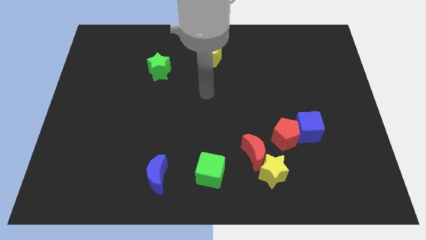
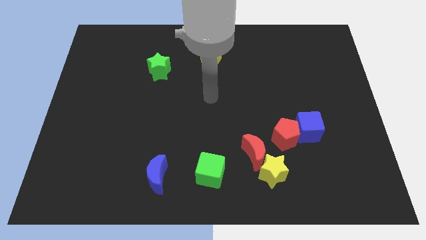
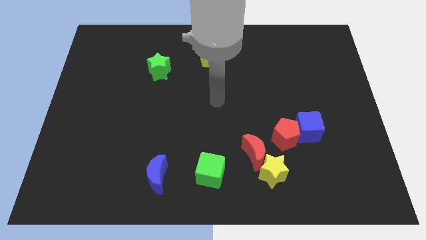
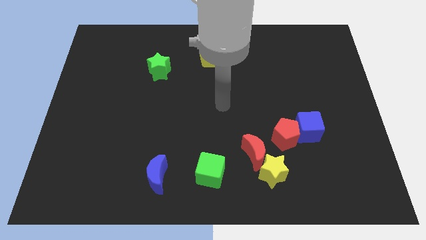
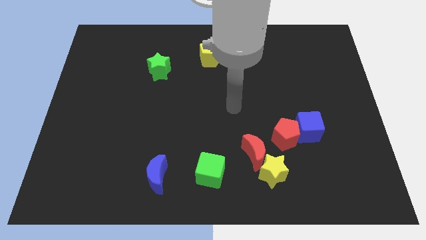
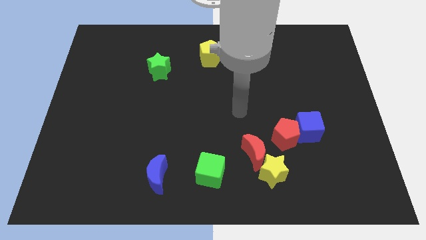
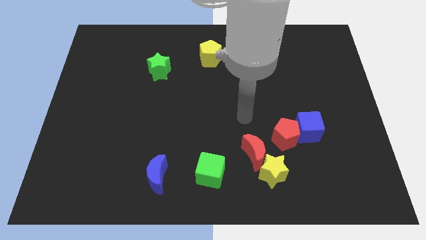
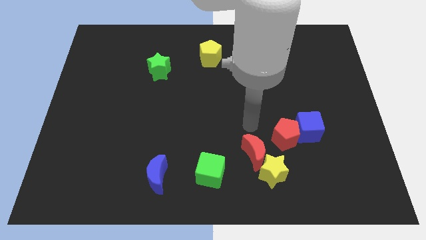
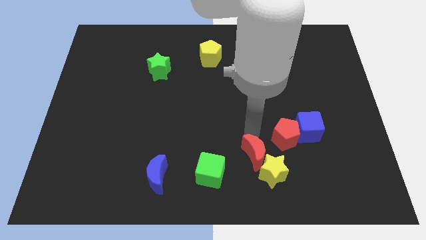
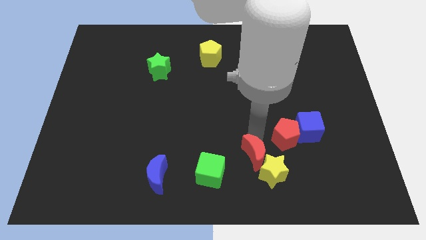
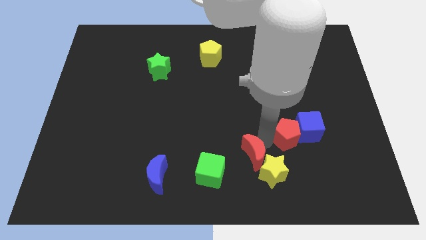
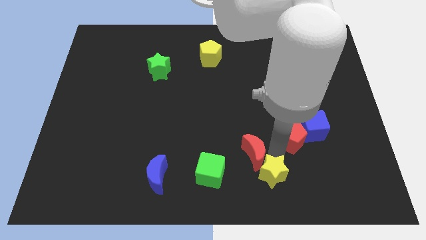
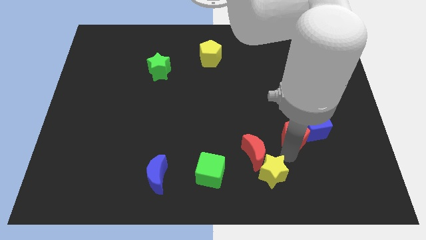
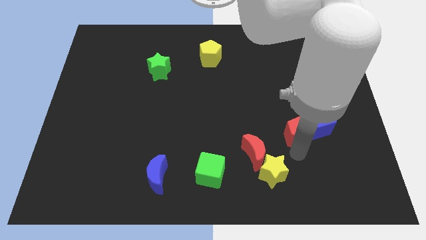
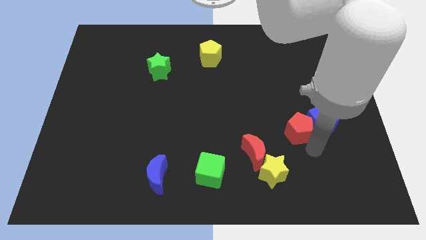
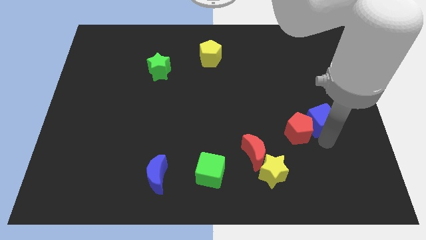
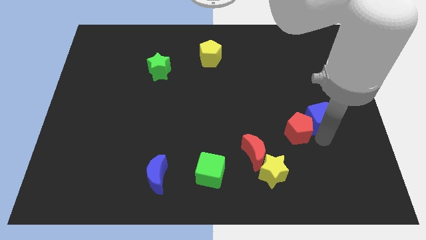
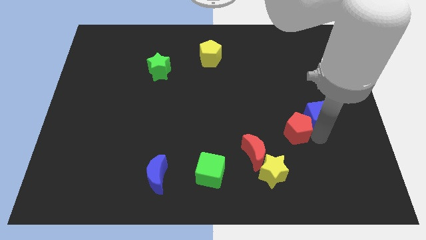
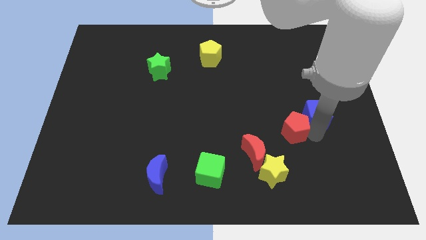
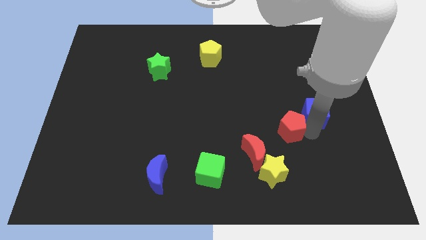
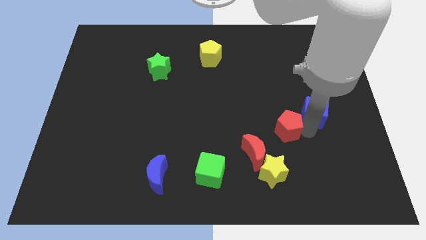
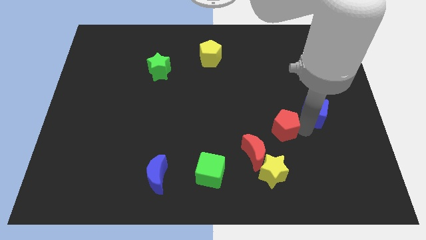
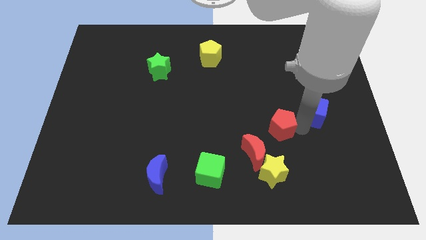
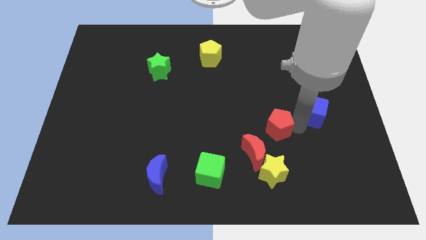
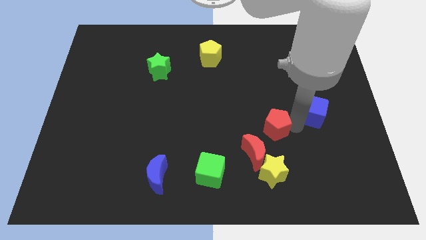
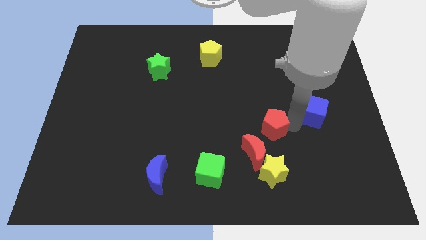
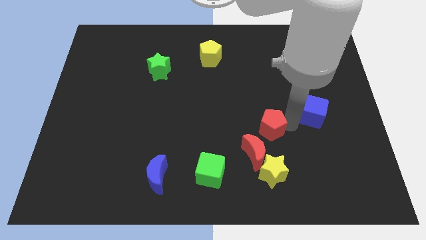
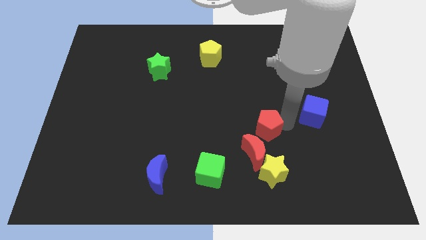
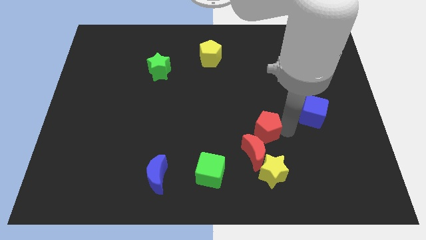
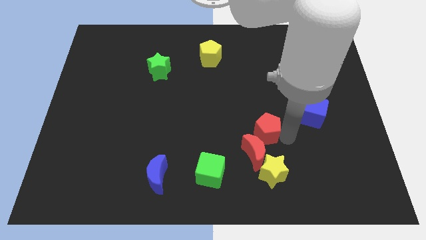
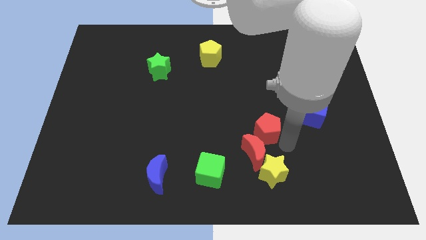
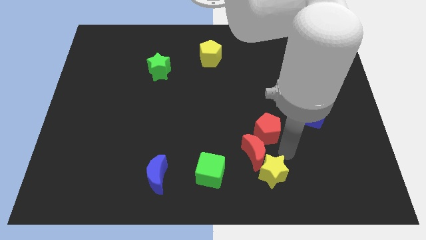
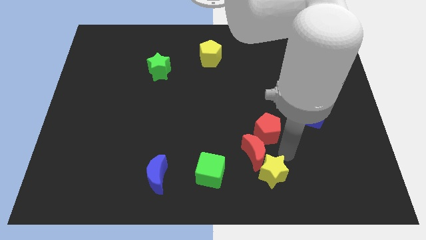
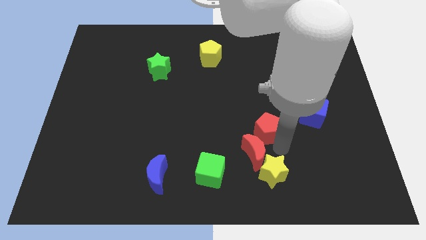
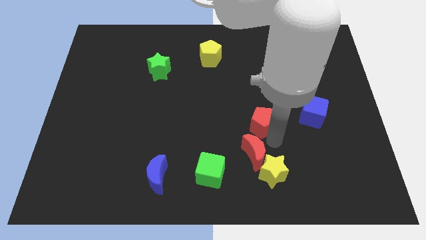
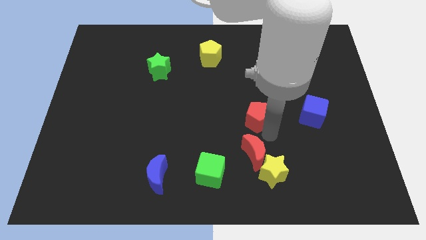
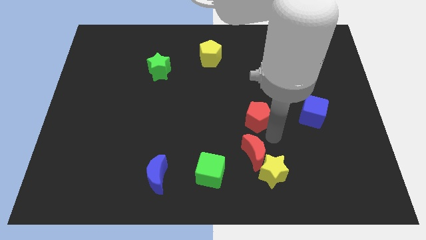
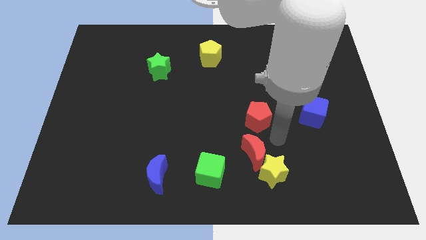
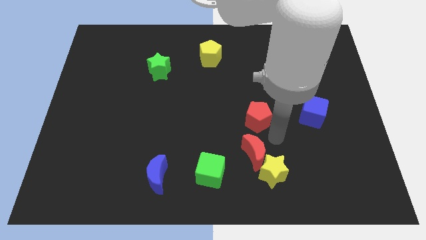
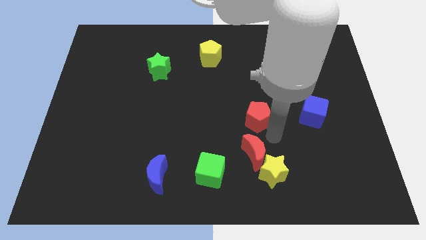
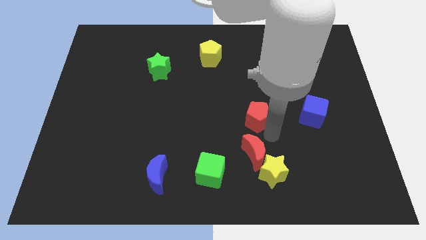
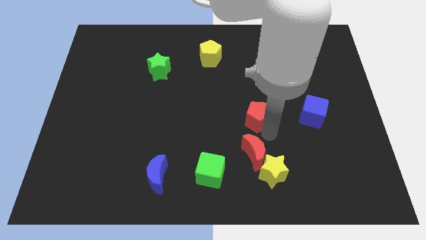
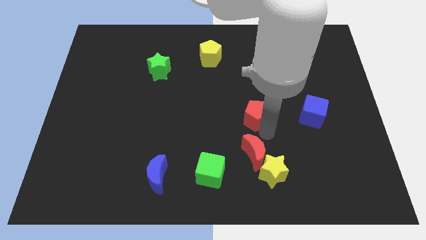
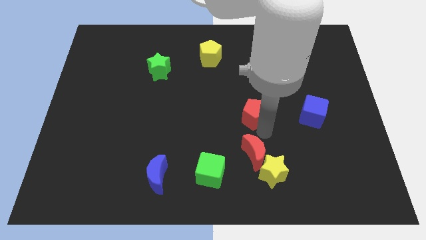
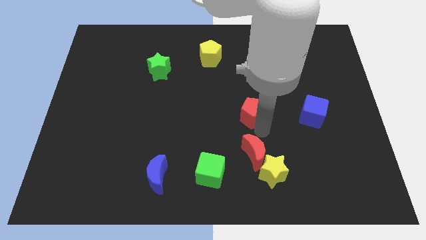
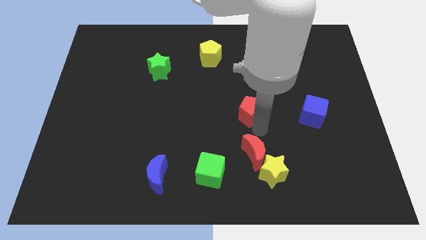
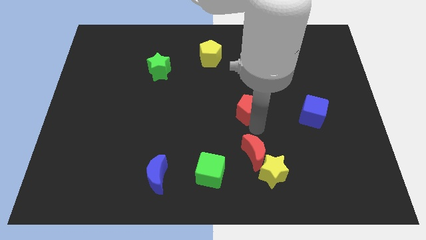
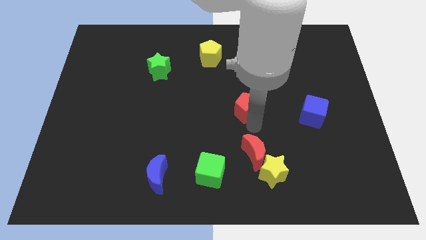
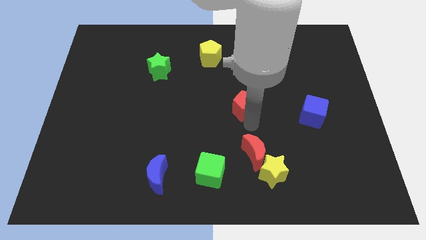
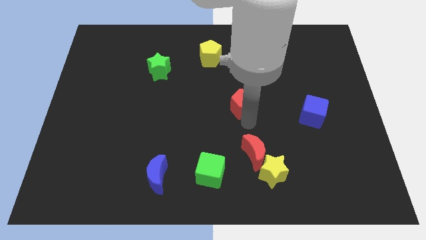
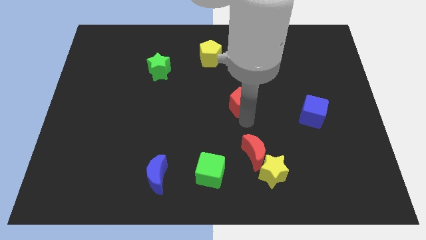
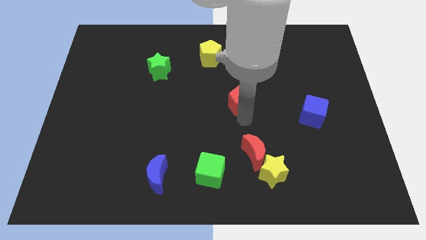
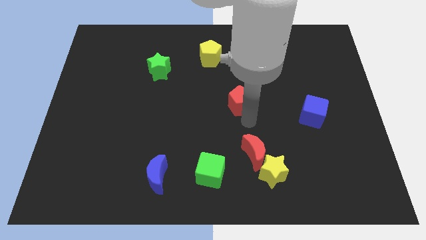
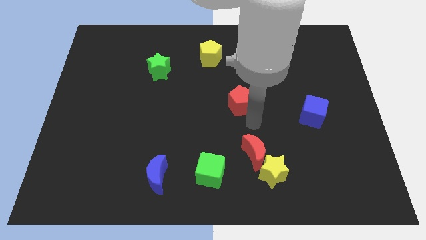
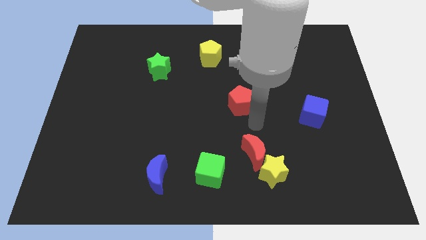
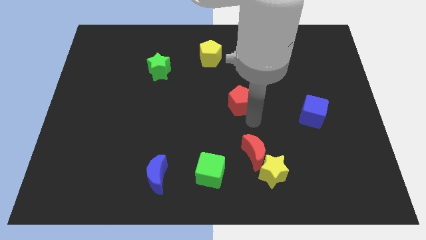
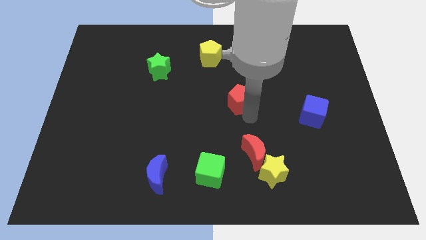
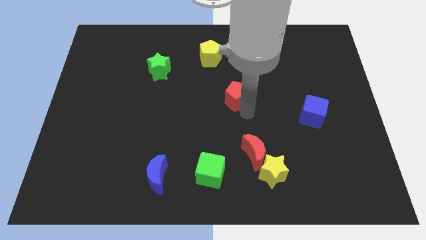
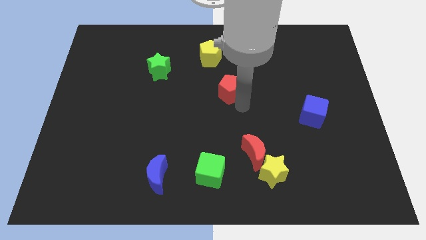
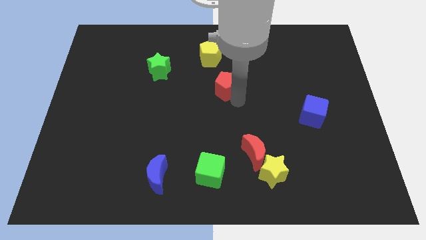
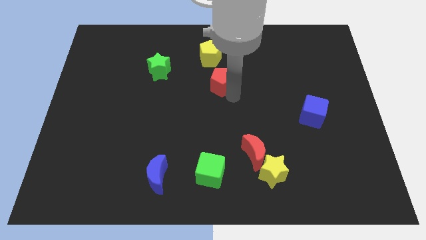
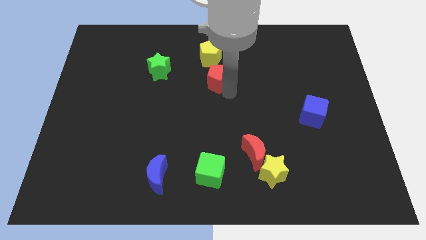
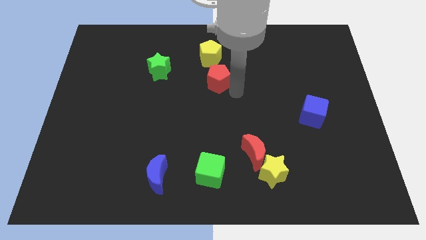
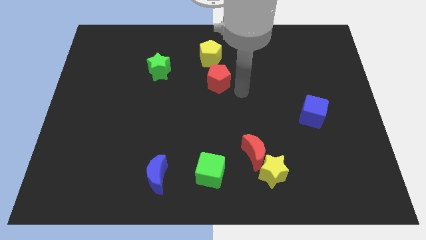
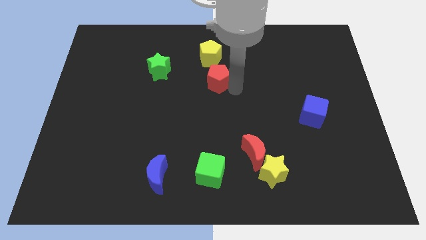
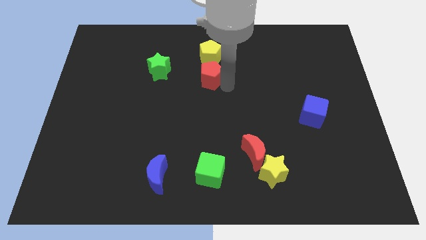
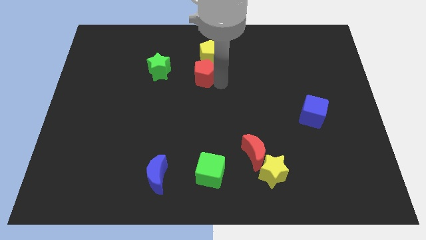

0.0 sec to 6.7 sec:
slide the red pentagon to the bottom left side of the yellow pentagon
